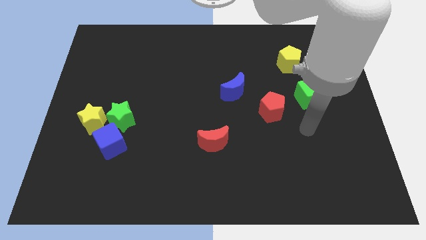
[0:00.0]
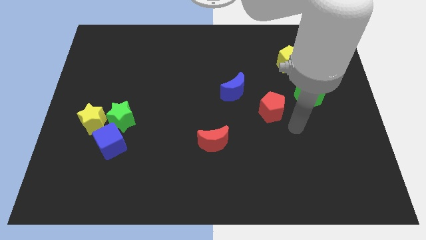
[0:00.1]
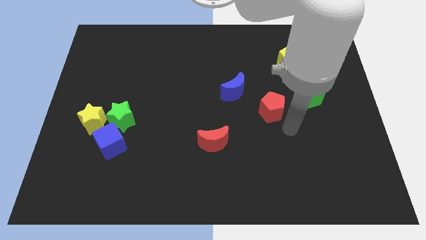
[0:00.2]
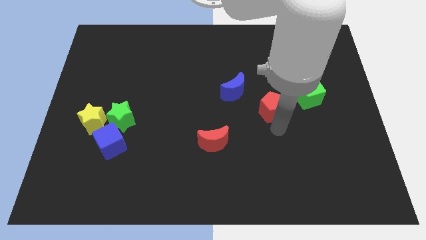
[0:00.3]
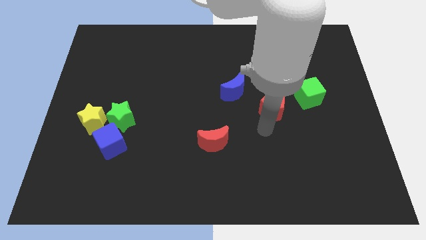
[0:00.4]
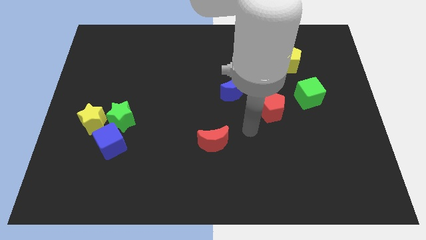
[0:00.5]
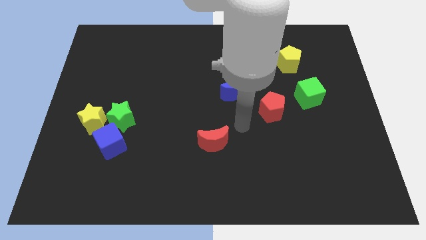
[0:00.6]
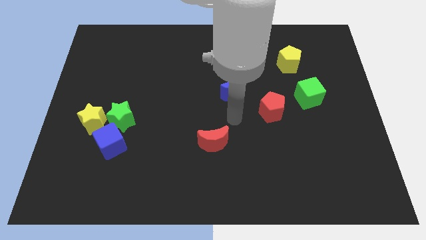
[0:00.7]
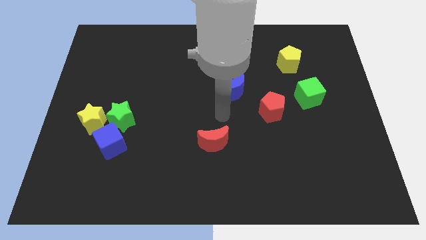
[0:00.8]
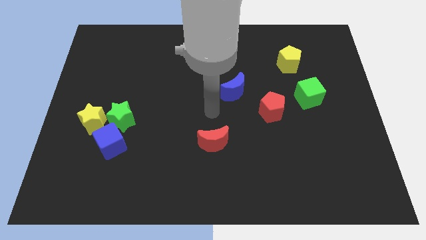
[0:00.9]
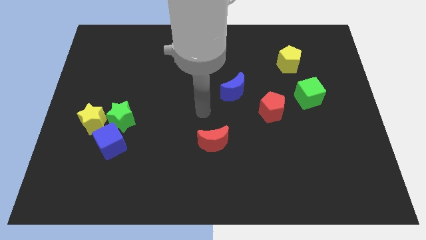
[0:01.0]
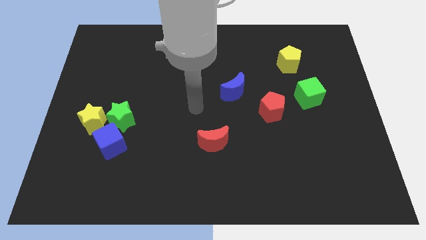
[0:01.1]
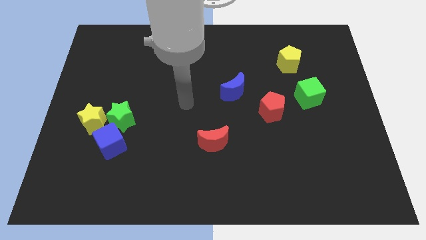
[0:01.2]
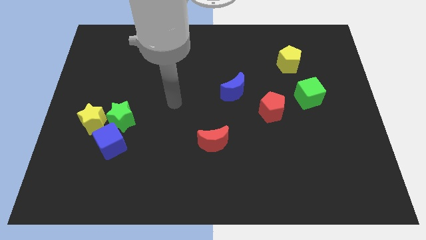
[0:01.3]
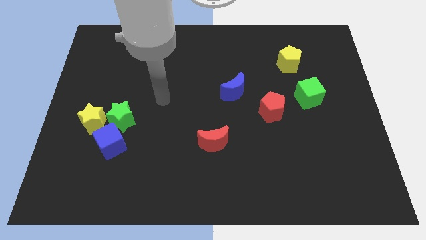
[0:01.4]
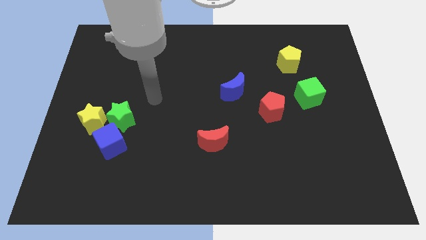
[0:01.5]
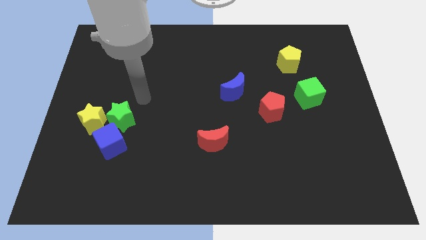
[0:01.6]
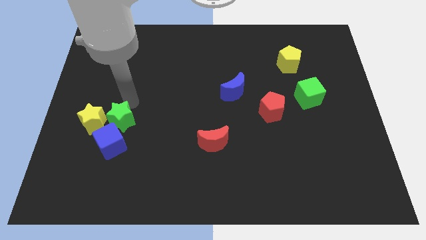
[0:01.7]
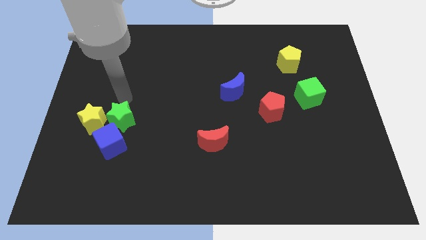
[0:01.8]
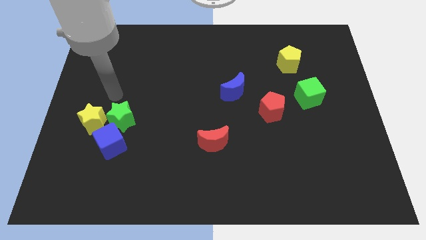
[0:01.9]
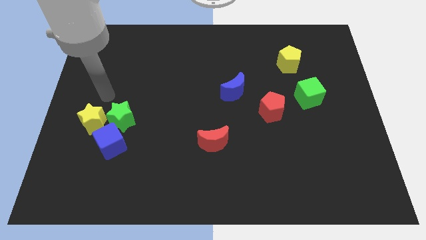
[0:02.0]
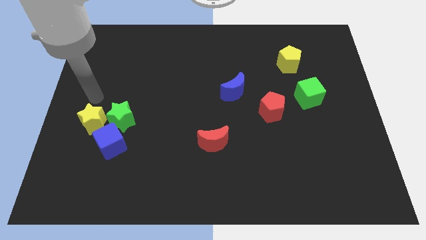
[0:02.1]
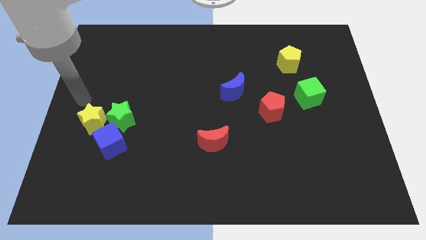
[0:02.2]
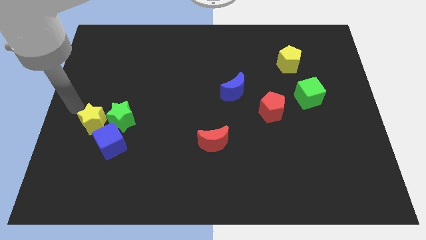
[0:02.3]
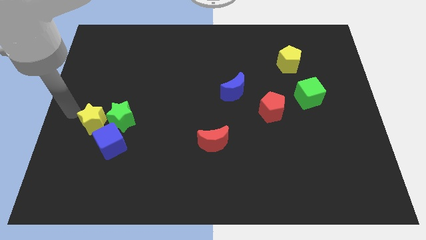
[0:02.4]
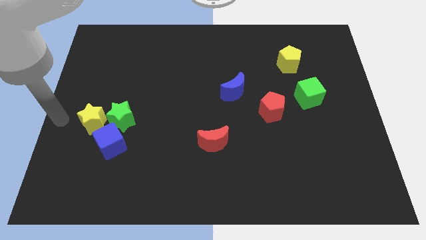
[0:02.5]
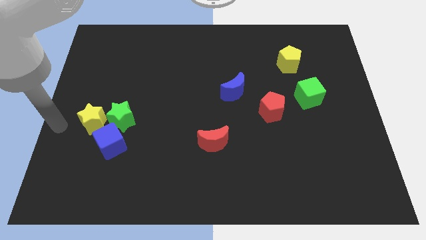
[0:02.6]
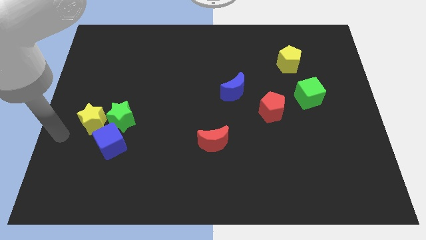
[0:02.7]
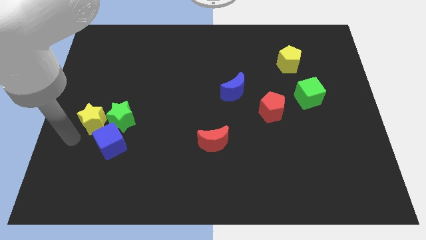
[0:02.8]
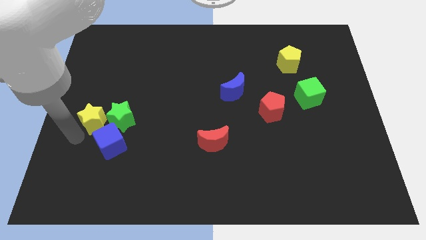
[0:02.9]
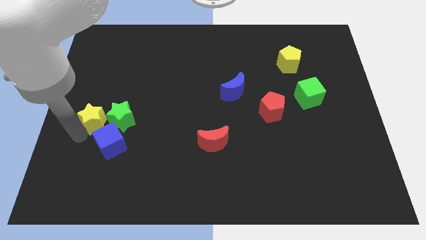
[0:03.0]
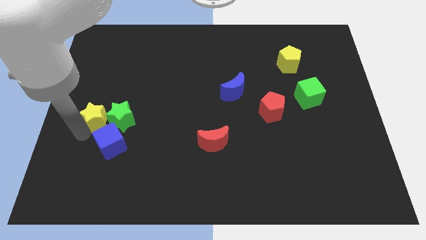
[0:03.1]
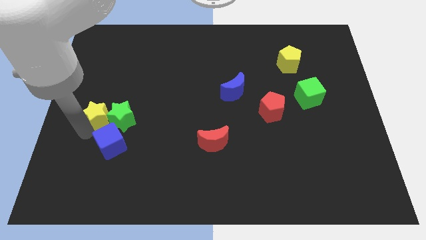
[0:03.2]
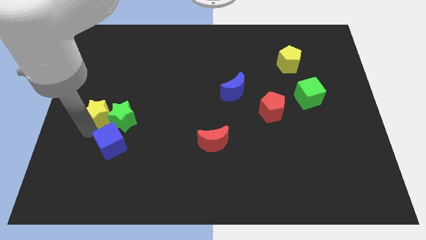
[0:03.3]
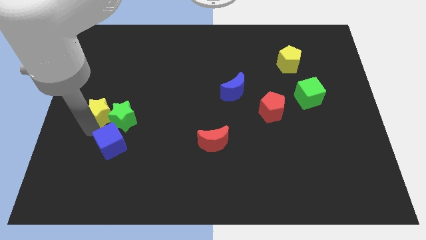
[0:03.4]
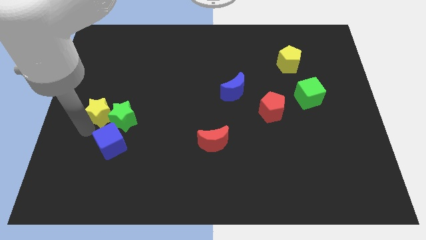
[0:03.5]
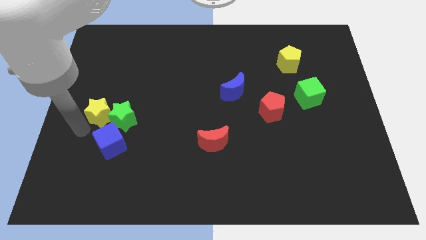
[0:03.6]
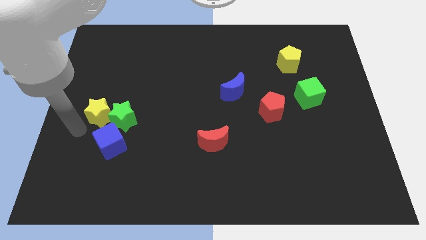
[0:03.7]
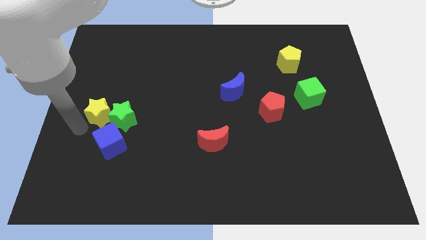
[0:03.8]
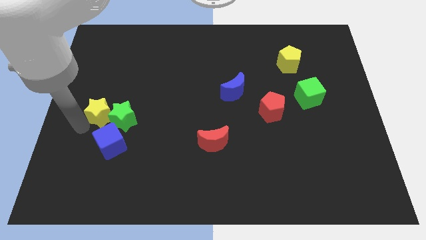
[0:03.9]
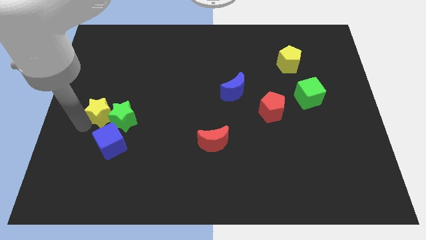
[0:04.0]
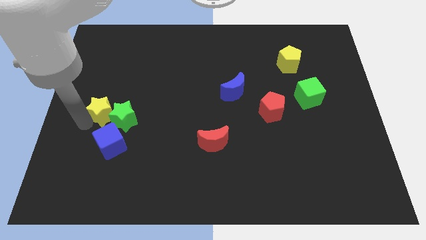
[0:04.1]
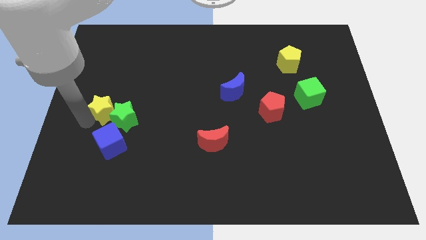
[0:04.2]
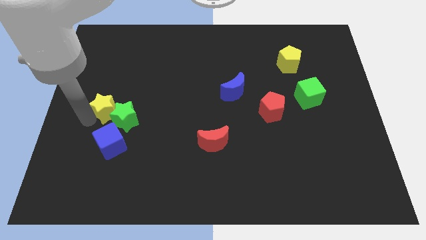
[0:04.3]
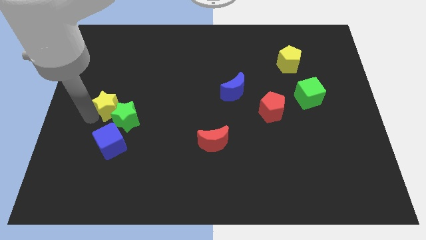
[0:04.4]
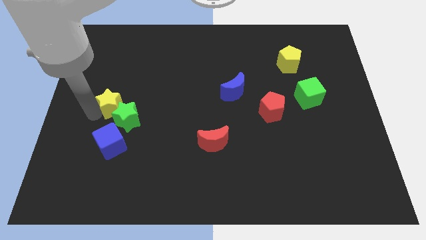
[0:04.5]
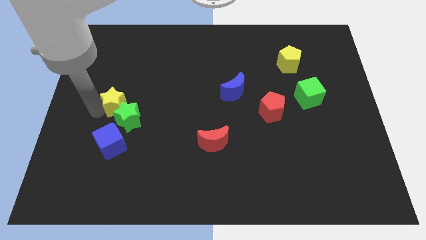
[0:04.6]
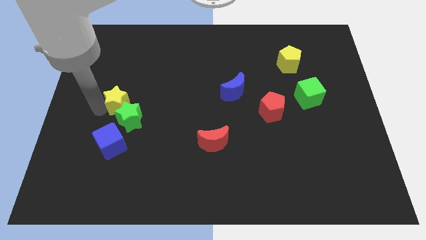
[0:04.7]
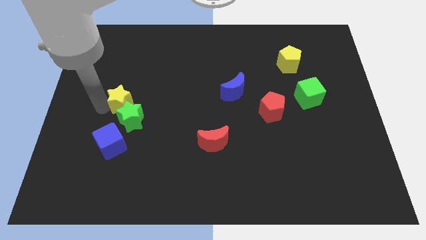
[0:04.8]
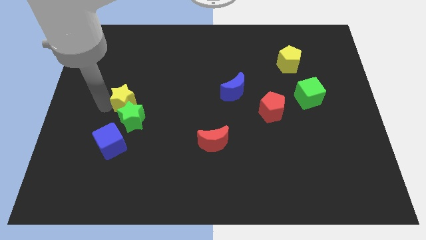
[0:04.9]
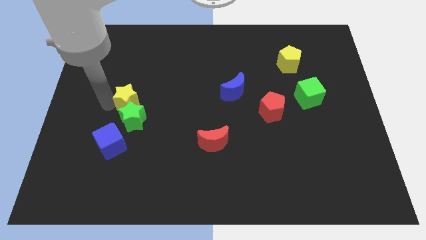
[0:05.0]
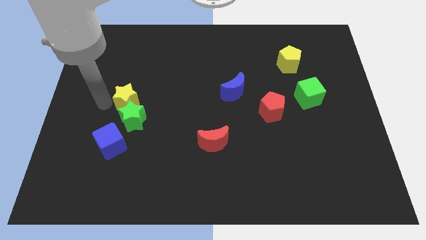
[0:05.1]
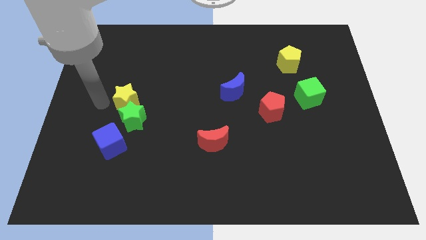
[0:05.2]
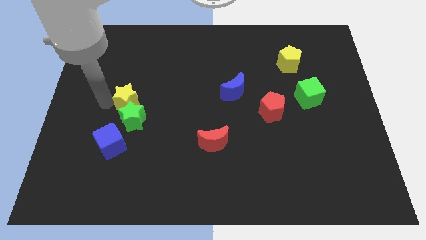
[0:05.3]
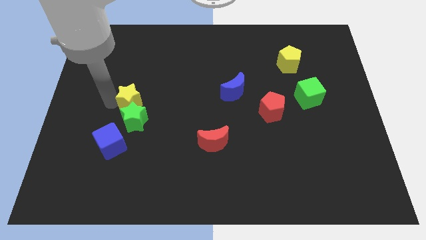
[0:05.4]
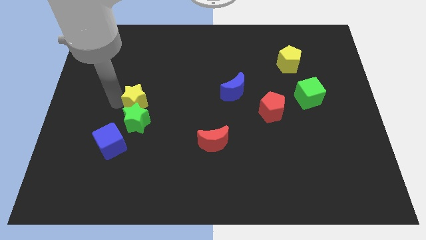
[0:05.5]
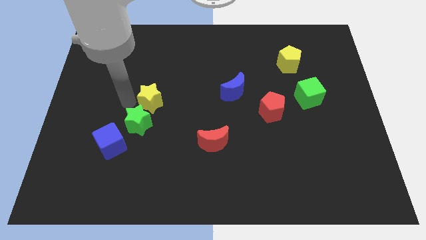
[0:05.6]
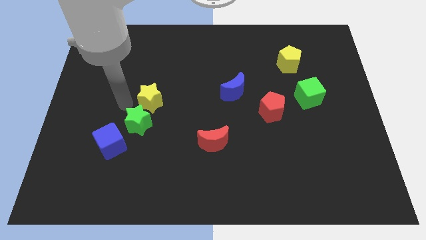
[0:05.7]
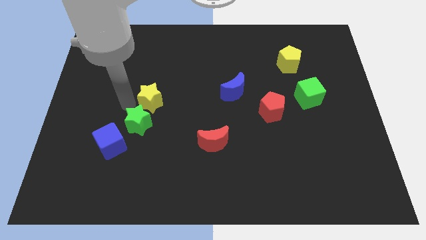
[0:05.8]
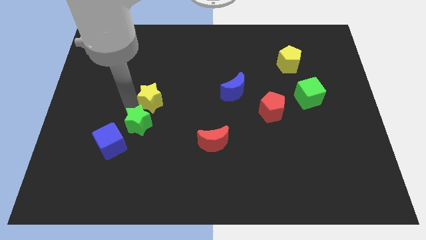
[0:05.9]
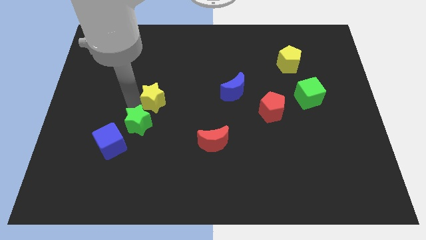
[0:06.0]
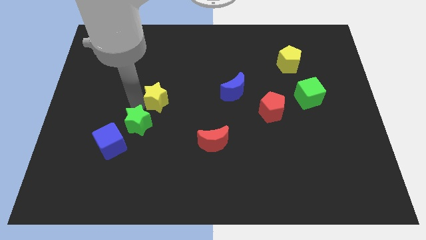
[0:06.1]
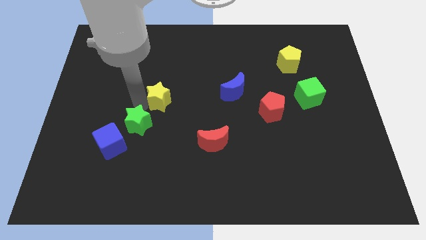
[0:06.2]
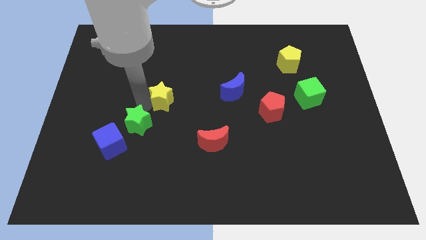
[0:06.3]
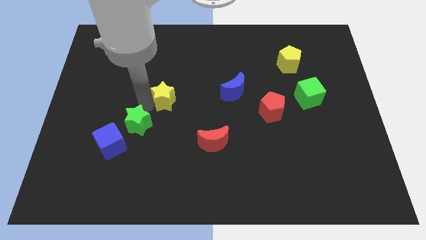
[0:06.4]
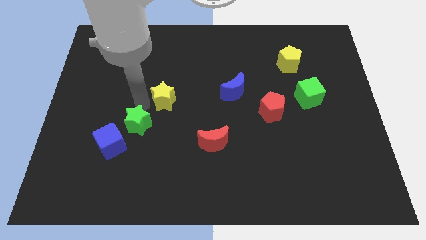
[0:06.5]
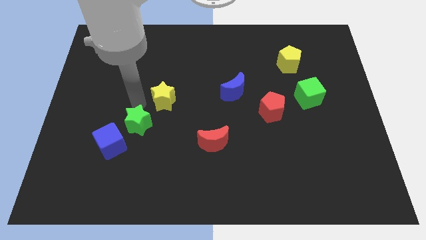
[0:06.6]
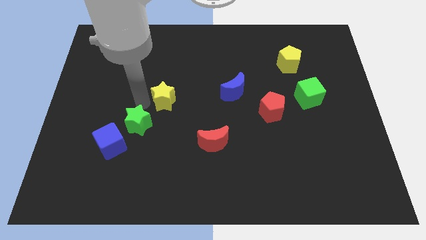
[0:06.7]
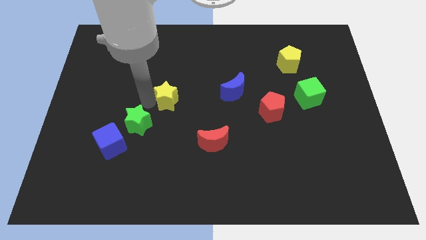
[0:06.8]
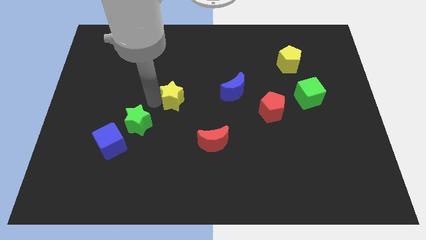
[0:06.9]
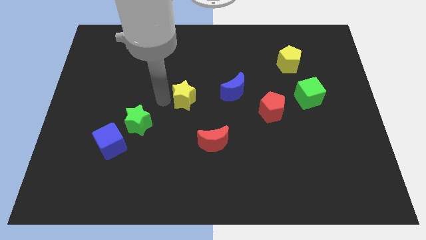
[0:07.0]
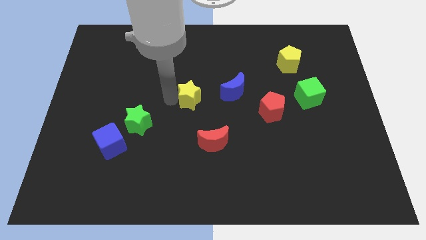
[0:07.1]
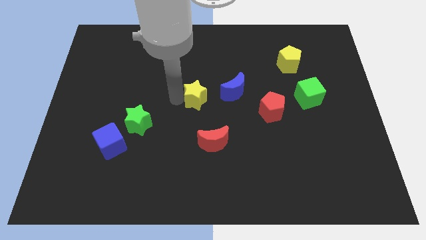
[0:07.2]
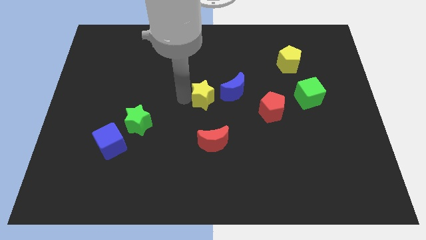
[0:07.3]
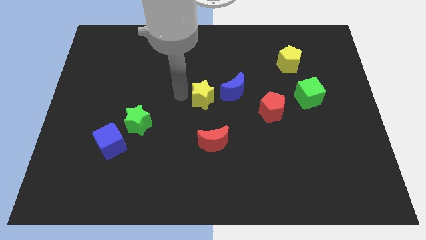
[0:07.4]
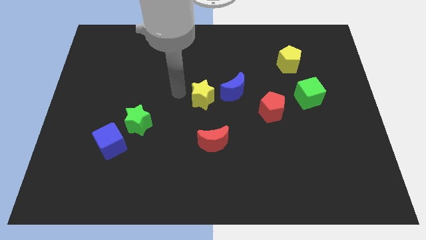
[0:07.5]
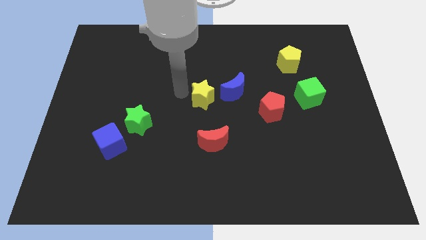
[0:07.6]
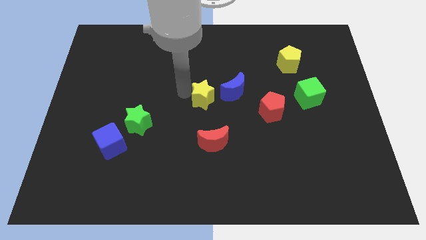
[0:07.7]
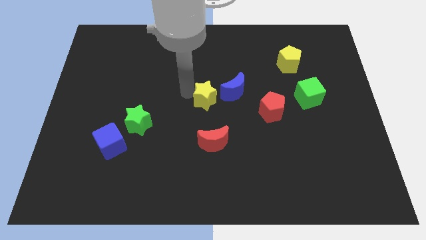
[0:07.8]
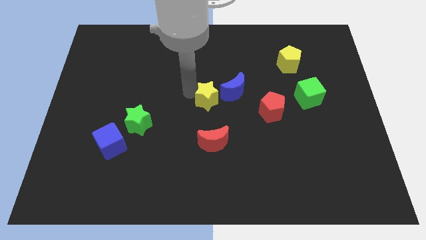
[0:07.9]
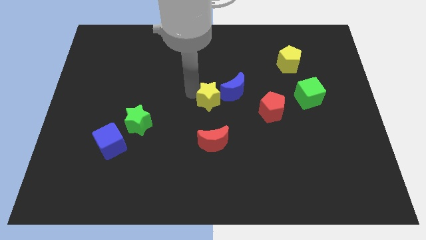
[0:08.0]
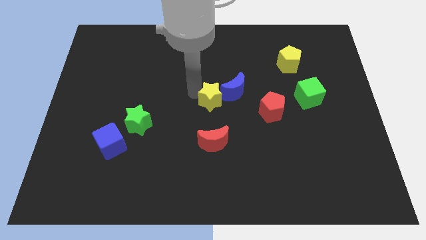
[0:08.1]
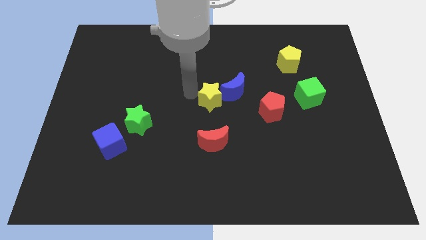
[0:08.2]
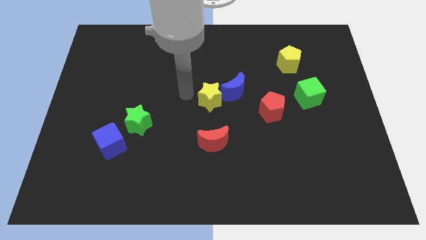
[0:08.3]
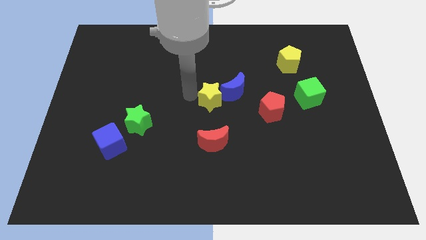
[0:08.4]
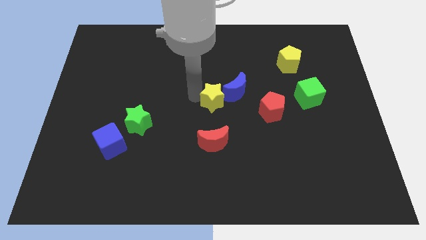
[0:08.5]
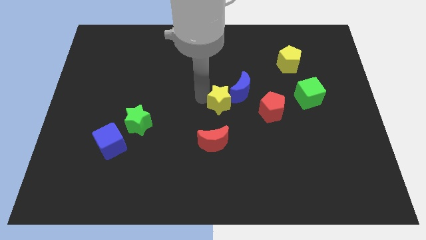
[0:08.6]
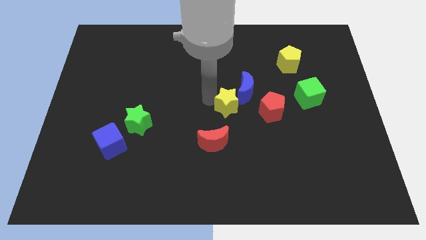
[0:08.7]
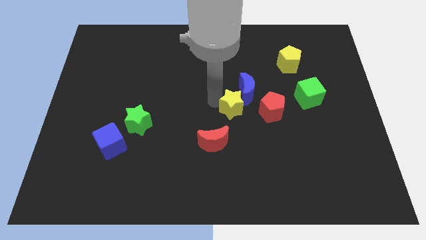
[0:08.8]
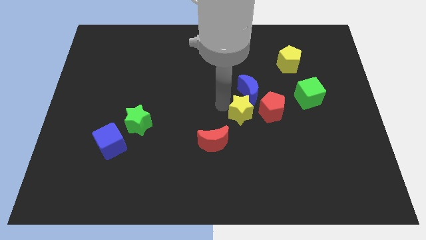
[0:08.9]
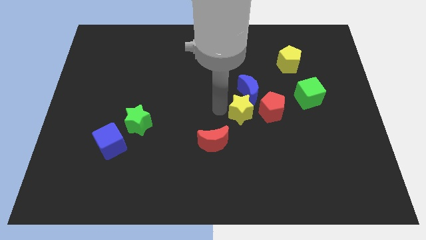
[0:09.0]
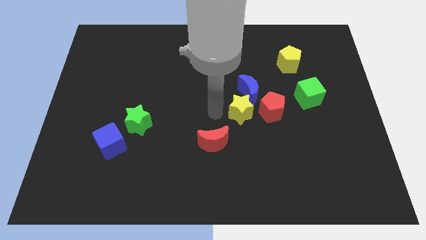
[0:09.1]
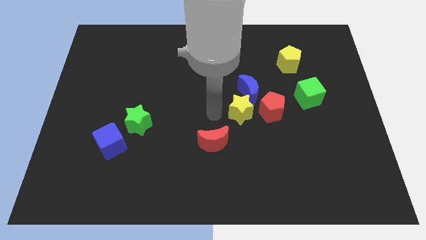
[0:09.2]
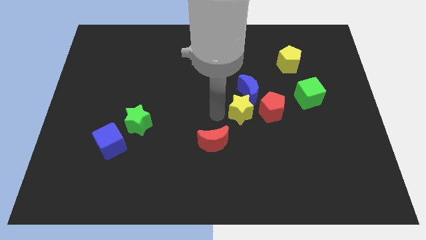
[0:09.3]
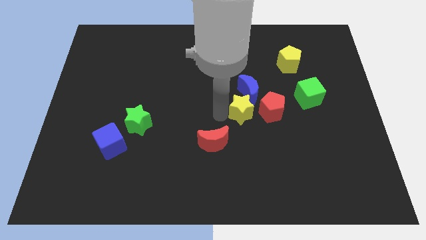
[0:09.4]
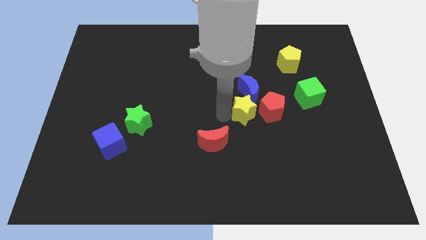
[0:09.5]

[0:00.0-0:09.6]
move the yellow star close to the red pentagon
